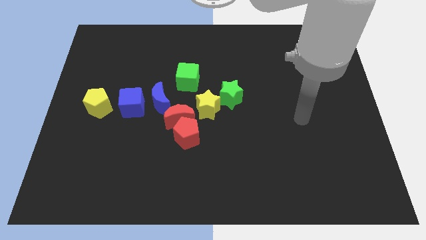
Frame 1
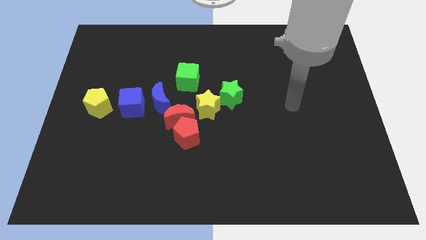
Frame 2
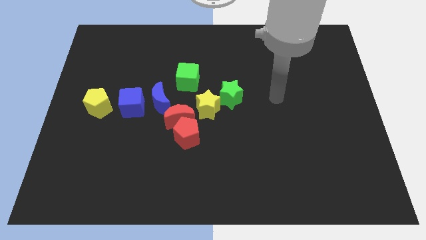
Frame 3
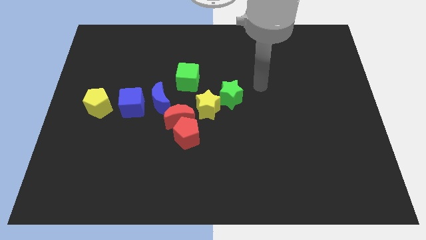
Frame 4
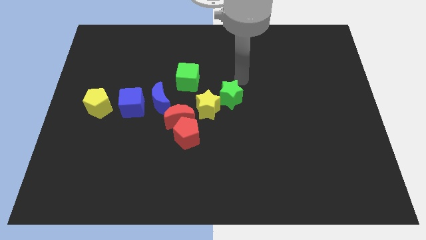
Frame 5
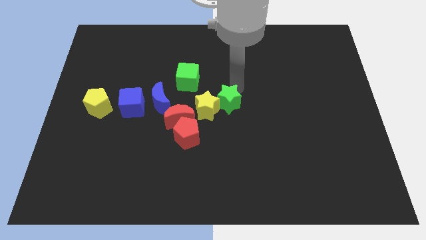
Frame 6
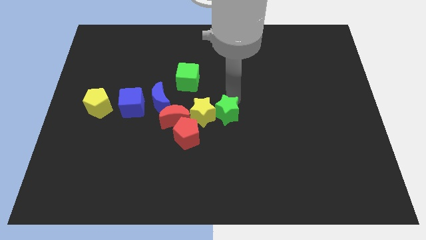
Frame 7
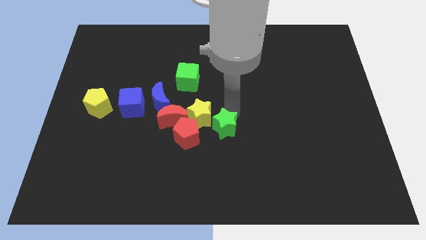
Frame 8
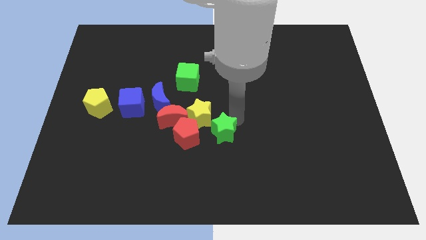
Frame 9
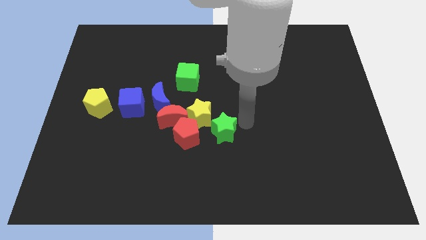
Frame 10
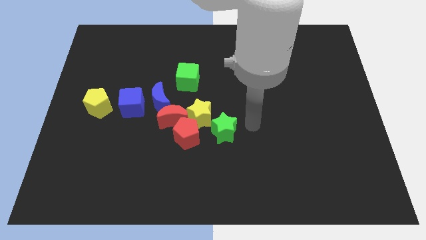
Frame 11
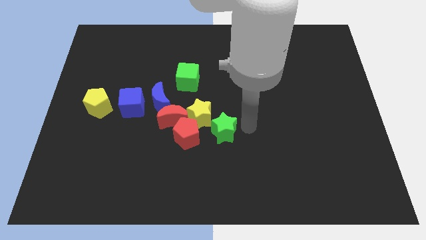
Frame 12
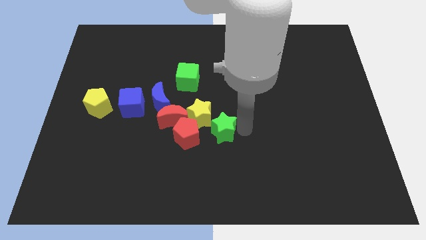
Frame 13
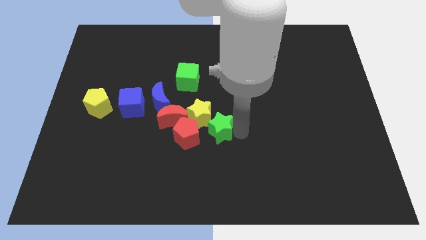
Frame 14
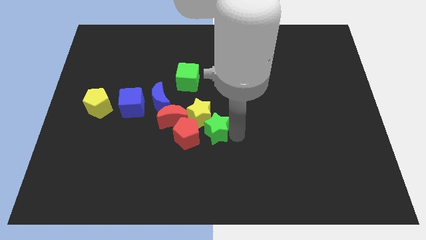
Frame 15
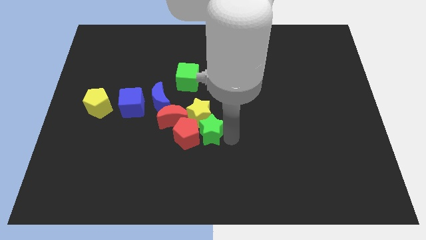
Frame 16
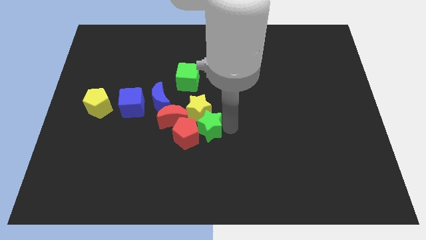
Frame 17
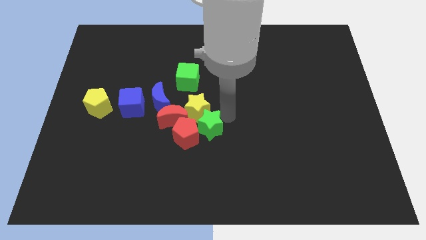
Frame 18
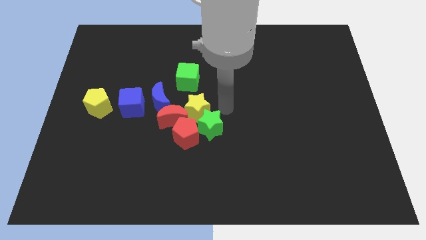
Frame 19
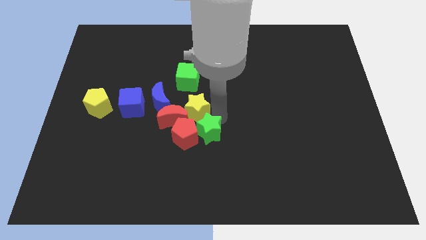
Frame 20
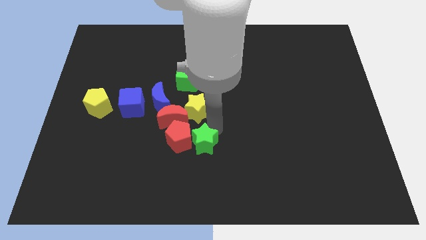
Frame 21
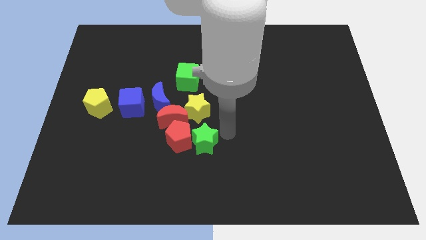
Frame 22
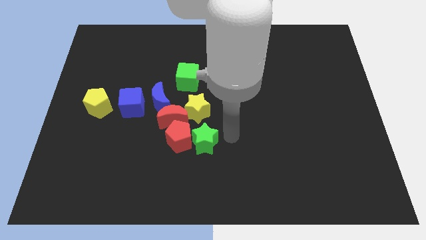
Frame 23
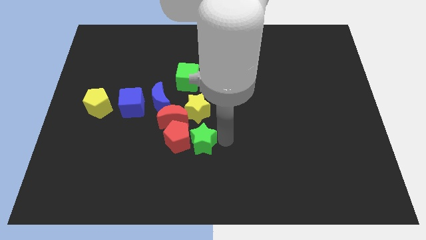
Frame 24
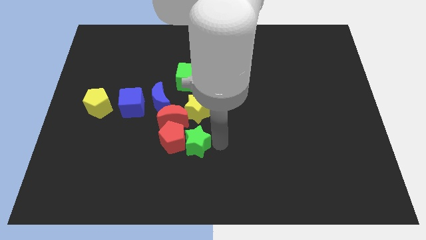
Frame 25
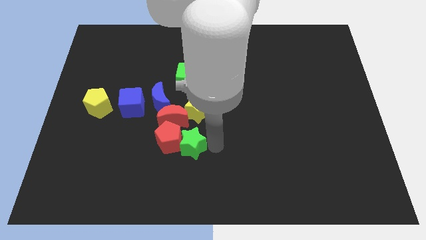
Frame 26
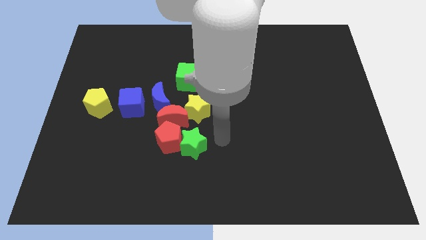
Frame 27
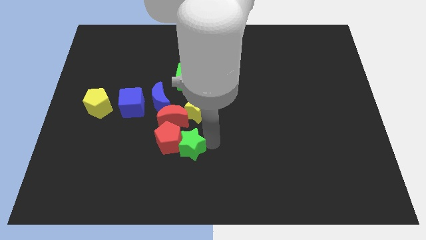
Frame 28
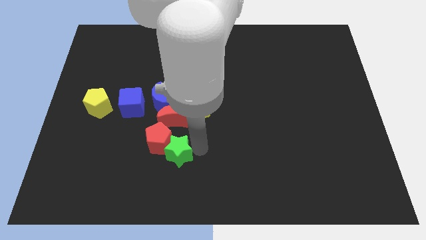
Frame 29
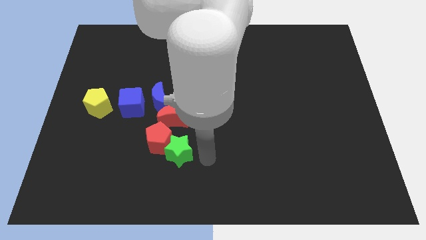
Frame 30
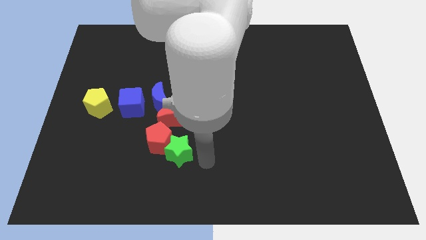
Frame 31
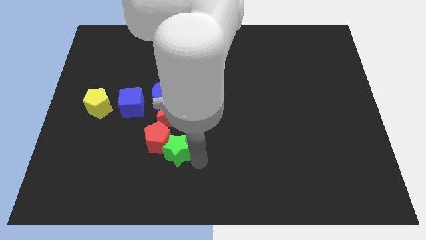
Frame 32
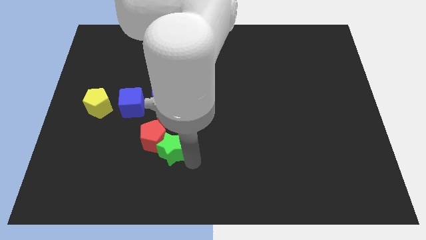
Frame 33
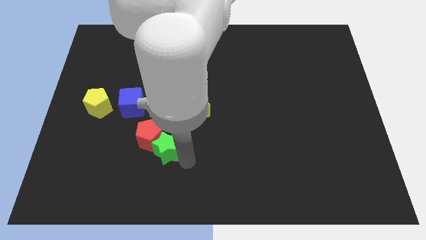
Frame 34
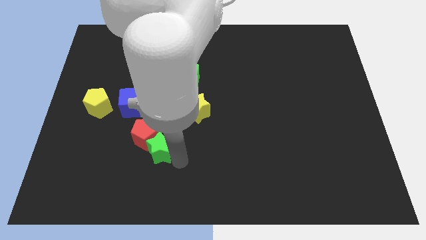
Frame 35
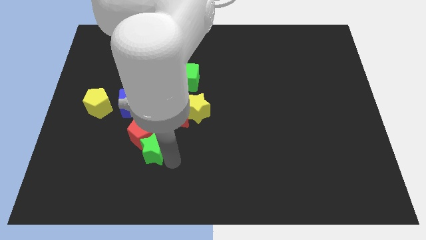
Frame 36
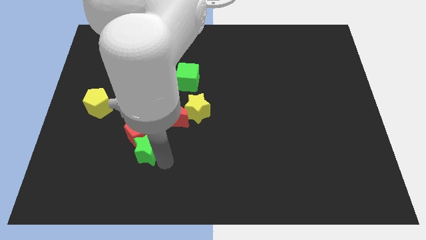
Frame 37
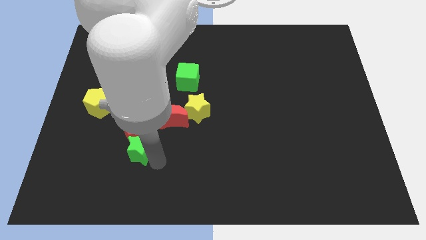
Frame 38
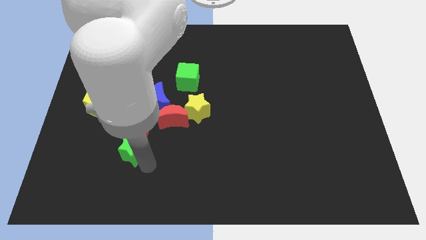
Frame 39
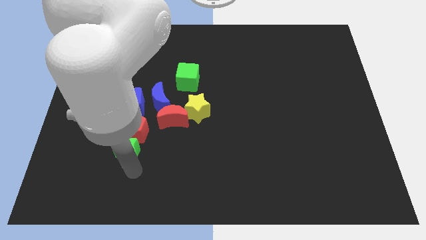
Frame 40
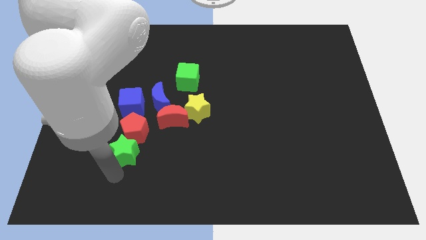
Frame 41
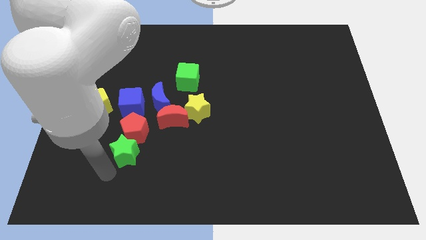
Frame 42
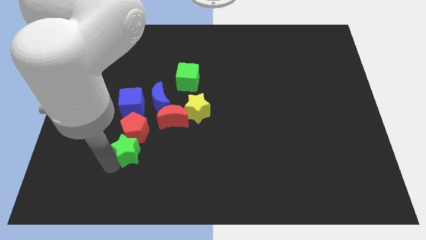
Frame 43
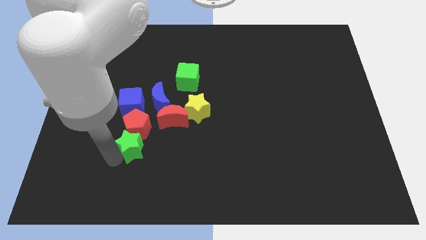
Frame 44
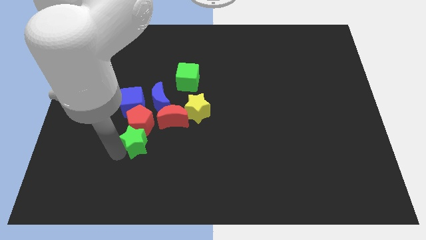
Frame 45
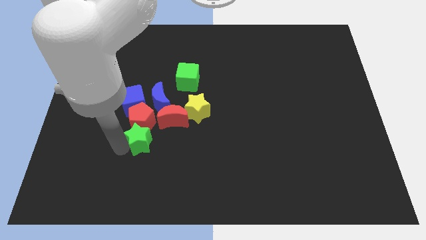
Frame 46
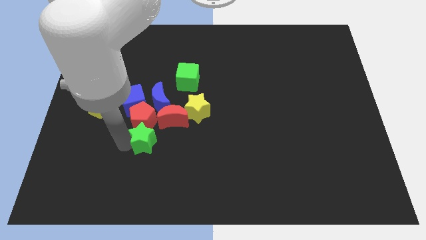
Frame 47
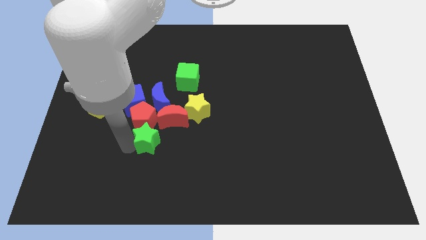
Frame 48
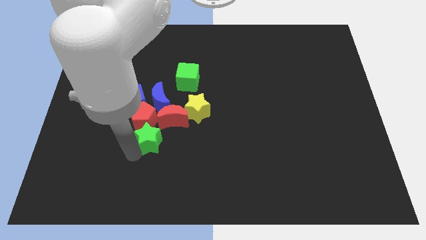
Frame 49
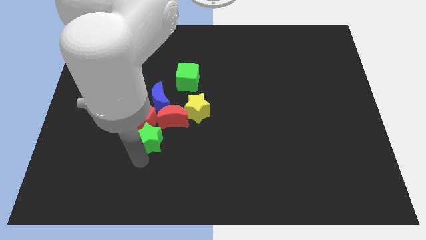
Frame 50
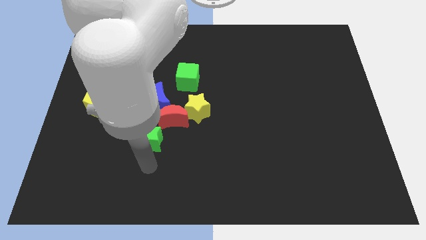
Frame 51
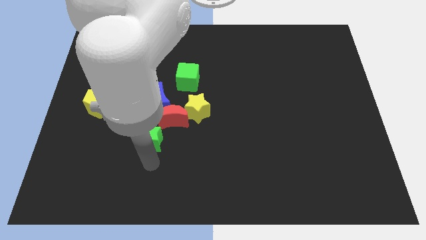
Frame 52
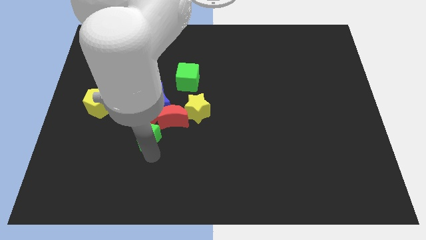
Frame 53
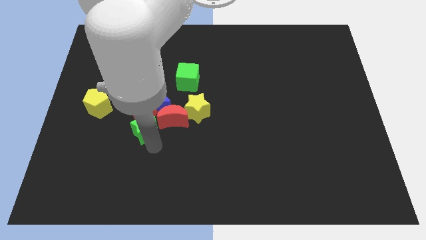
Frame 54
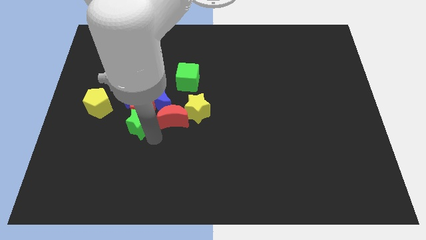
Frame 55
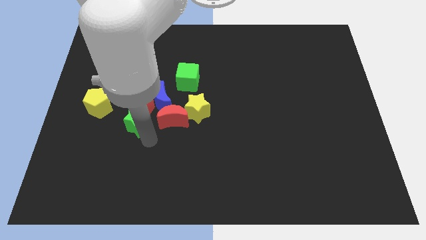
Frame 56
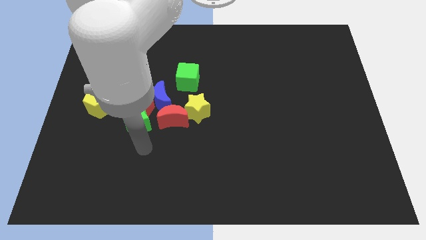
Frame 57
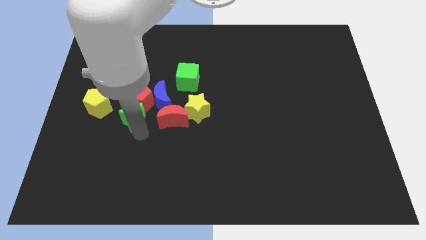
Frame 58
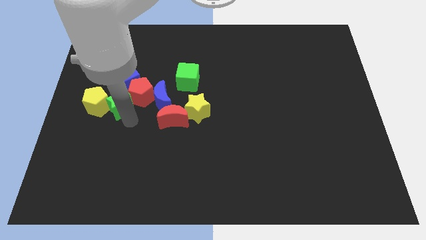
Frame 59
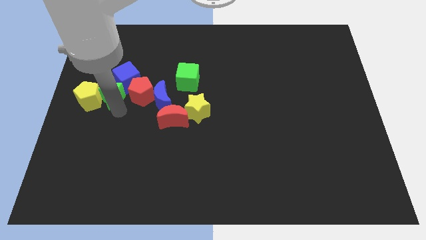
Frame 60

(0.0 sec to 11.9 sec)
slide the green star towards the blue cube

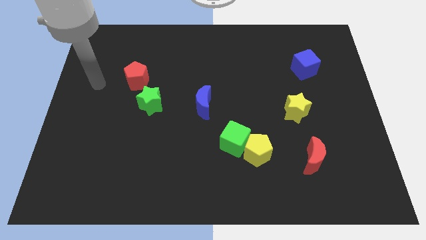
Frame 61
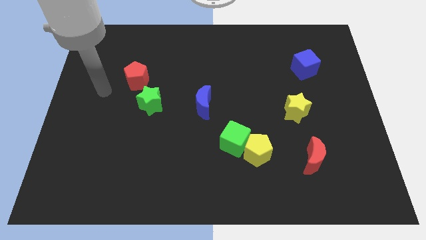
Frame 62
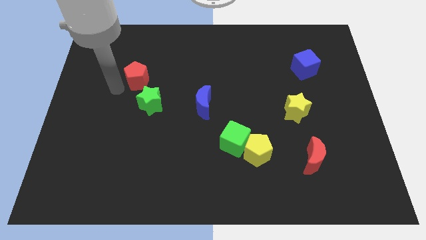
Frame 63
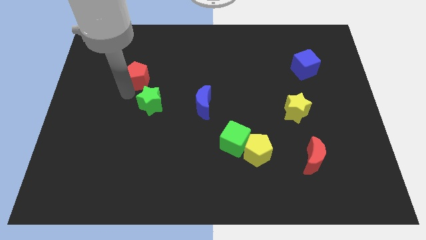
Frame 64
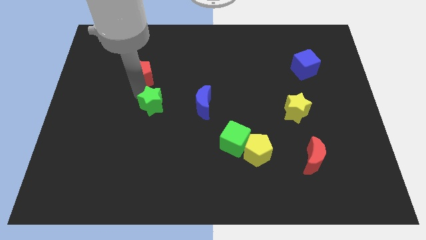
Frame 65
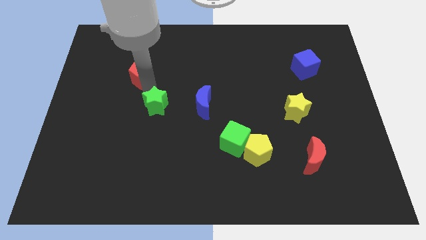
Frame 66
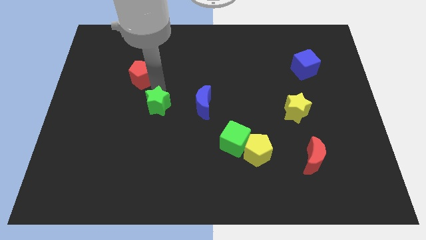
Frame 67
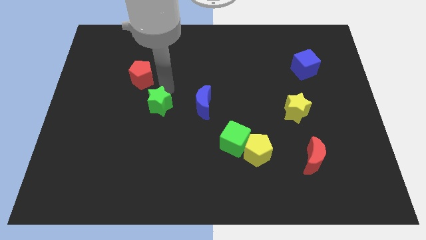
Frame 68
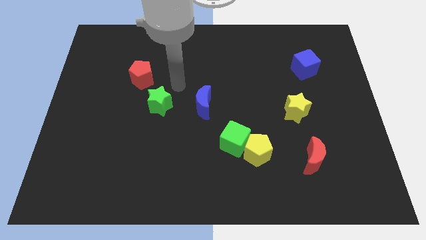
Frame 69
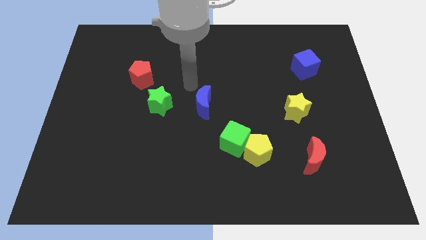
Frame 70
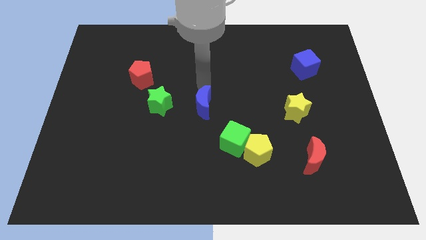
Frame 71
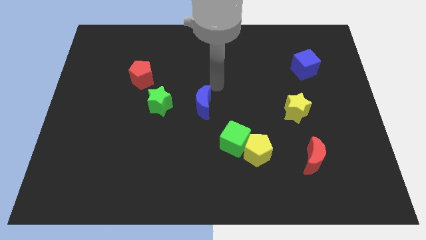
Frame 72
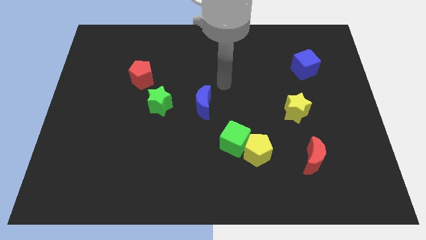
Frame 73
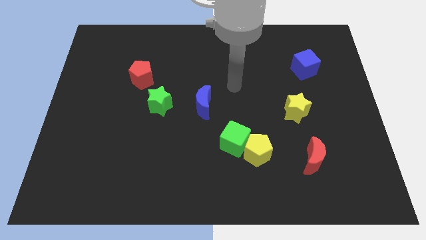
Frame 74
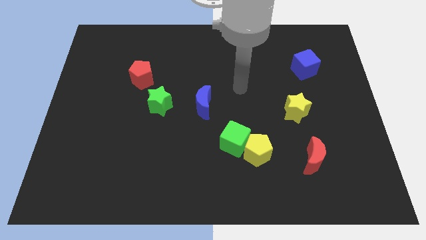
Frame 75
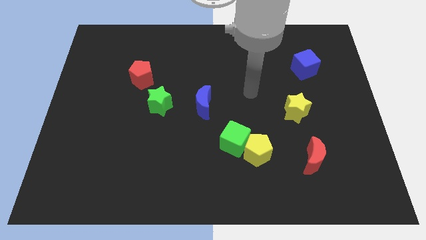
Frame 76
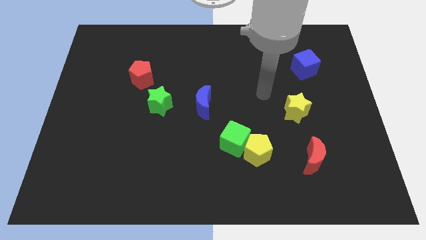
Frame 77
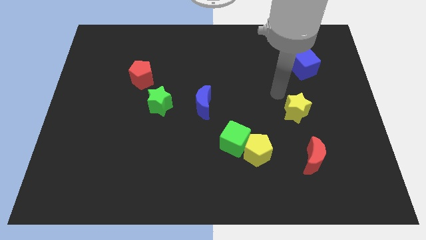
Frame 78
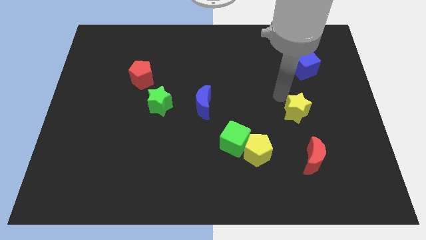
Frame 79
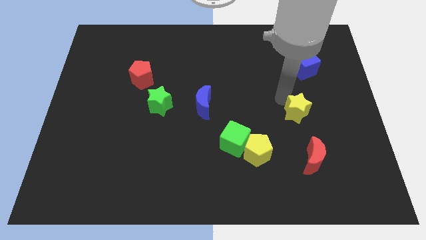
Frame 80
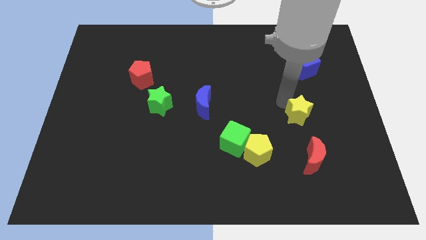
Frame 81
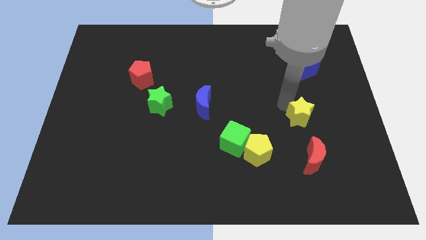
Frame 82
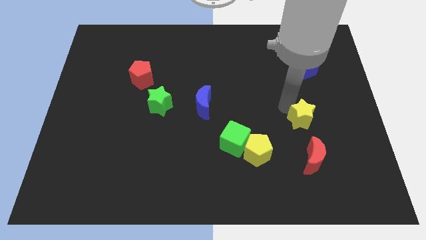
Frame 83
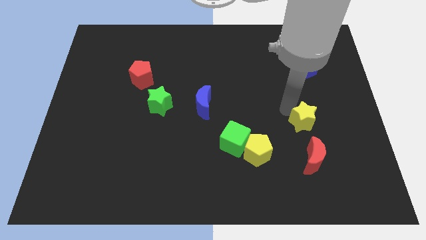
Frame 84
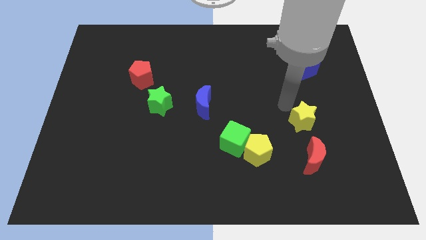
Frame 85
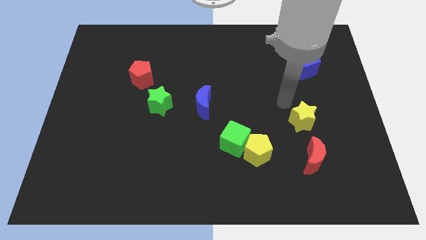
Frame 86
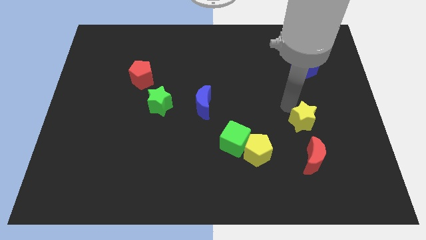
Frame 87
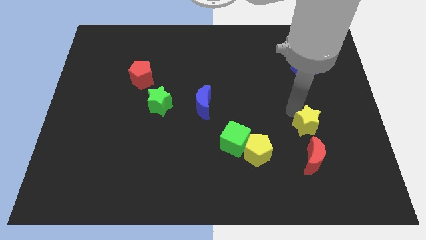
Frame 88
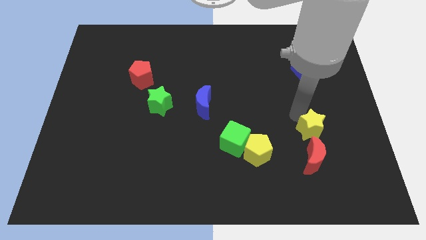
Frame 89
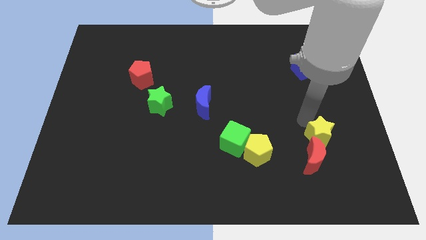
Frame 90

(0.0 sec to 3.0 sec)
slide the yellow star towards the red moon
